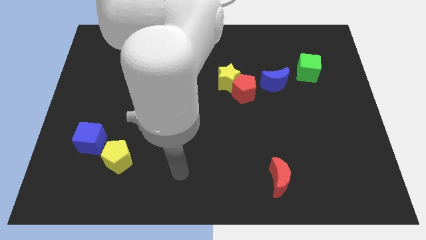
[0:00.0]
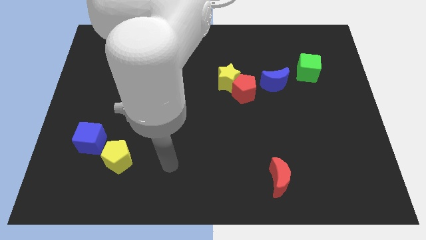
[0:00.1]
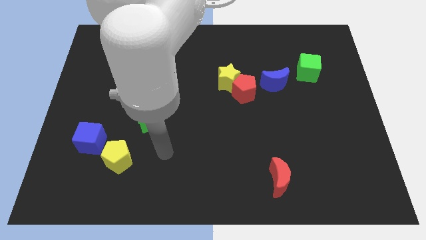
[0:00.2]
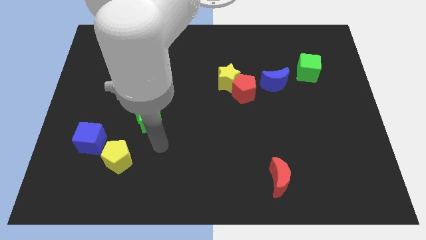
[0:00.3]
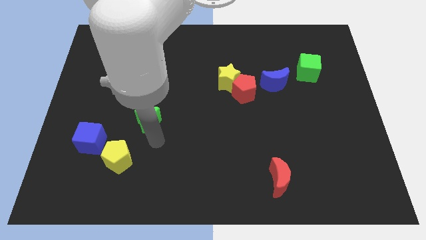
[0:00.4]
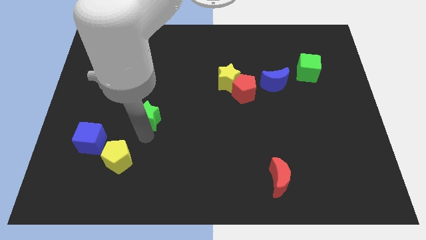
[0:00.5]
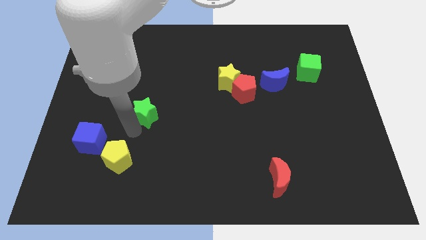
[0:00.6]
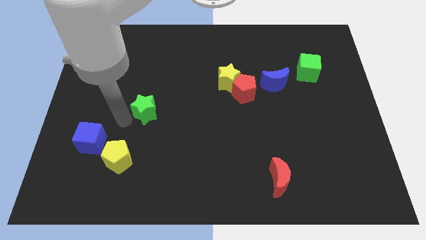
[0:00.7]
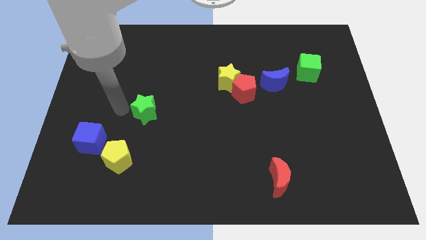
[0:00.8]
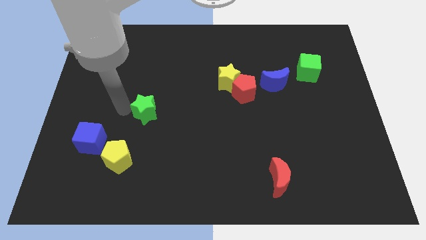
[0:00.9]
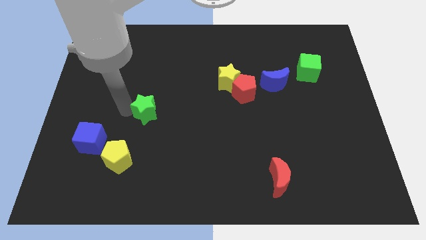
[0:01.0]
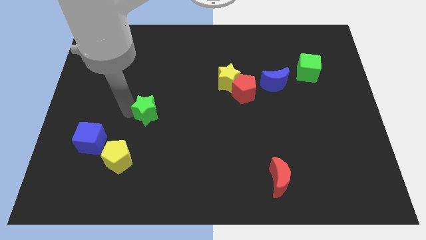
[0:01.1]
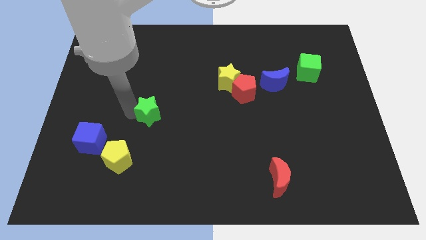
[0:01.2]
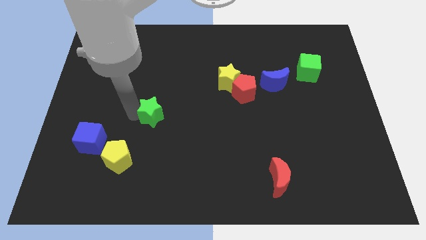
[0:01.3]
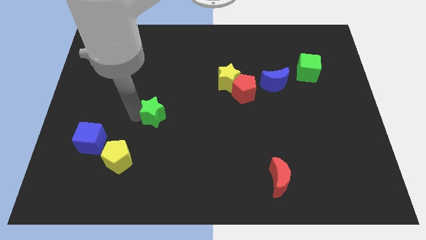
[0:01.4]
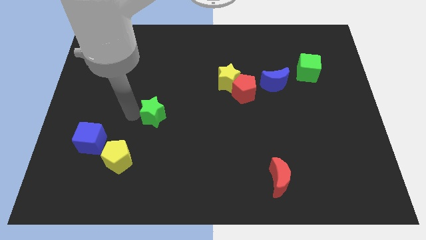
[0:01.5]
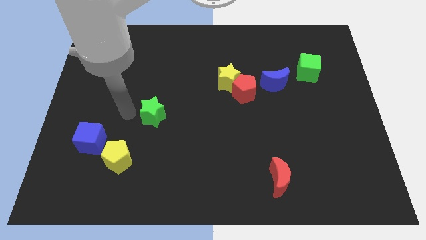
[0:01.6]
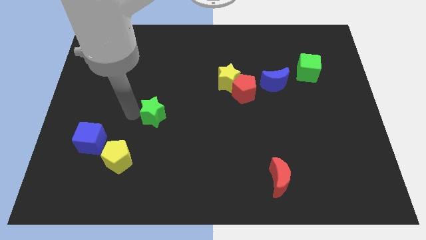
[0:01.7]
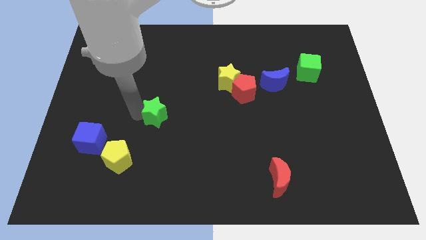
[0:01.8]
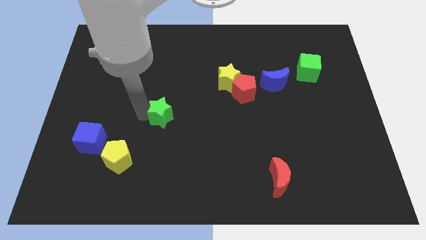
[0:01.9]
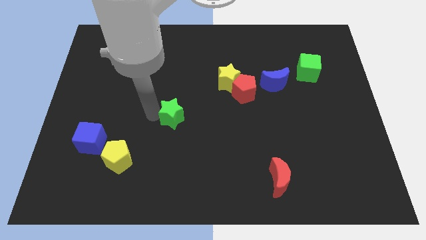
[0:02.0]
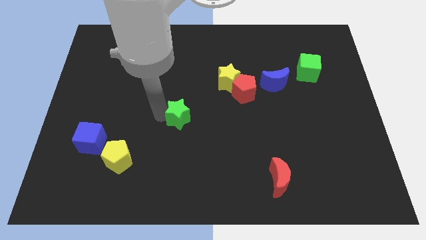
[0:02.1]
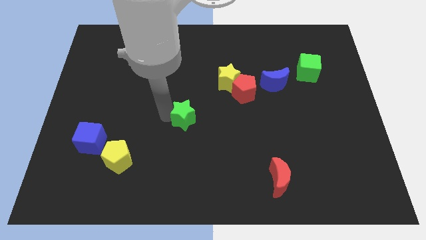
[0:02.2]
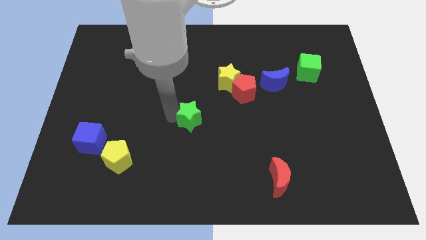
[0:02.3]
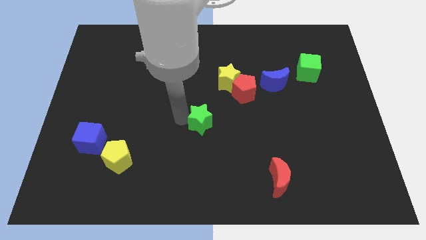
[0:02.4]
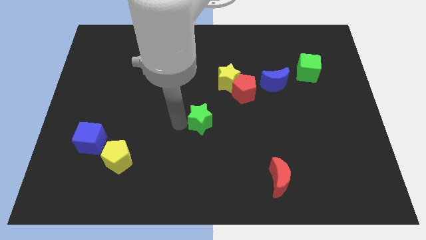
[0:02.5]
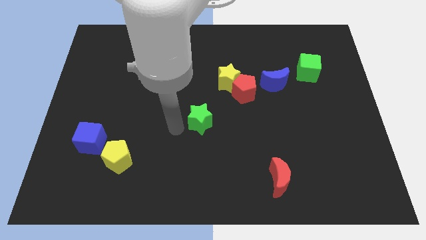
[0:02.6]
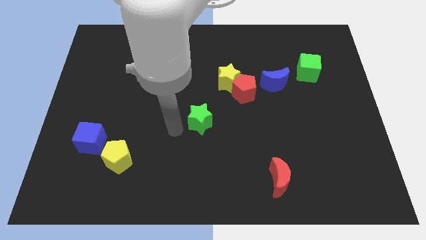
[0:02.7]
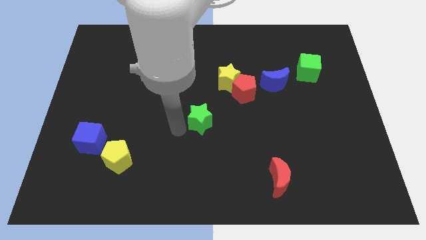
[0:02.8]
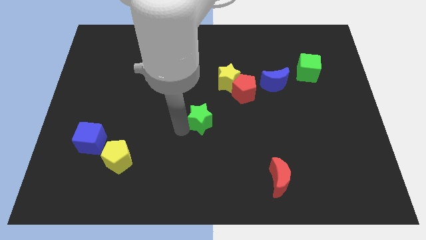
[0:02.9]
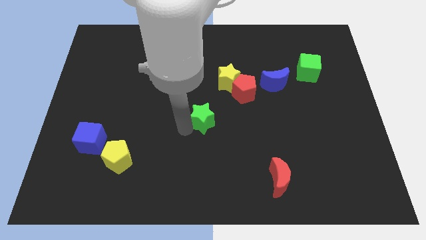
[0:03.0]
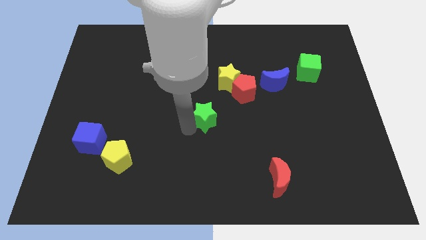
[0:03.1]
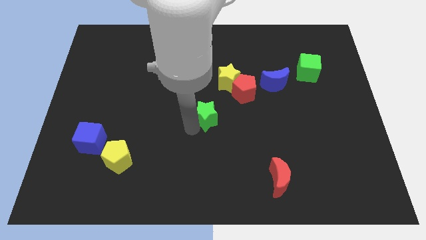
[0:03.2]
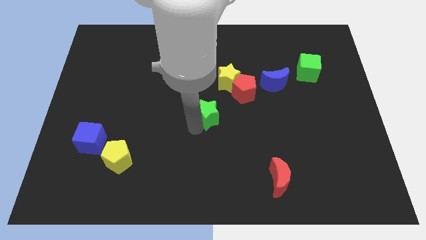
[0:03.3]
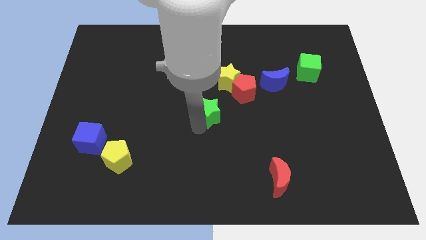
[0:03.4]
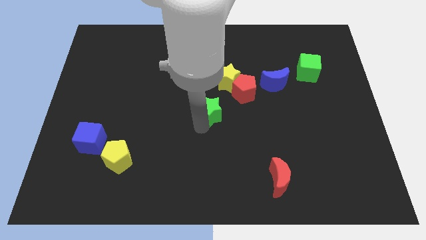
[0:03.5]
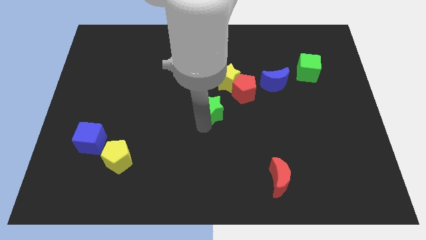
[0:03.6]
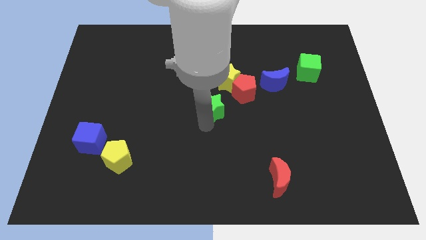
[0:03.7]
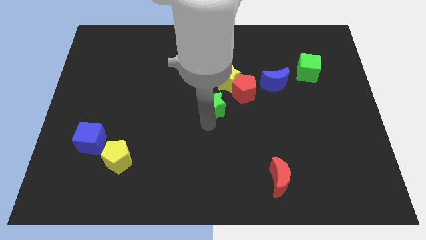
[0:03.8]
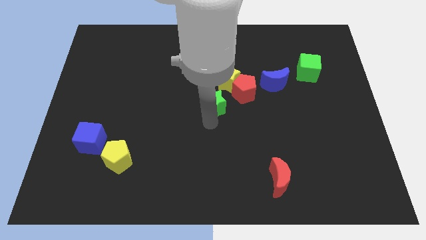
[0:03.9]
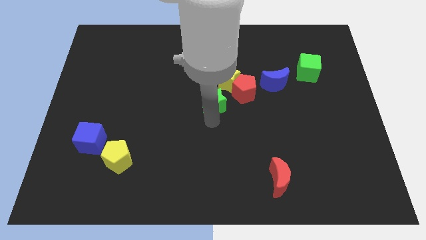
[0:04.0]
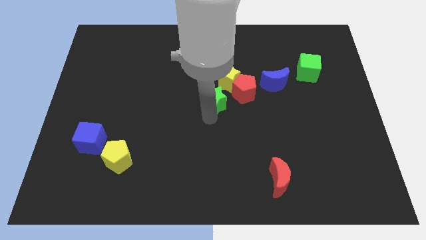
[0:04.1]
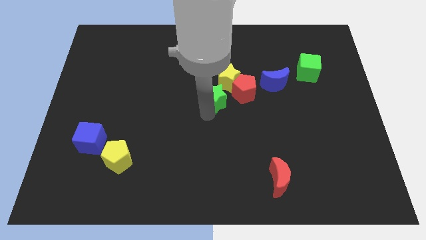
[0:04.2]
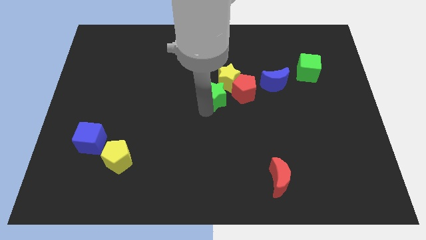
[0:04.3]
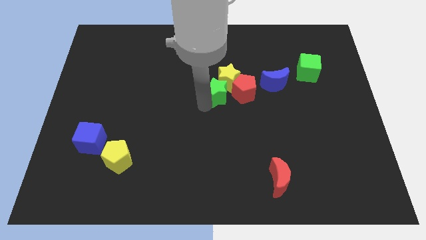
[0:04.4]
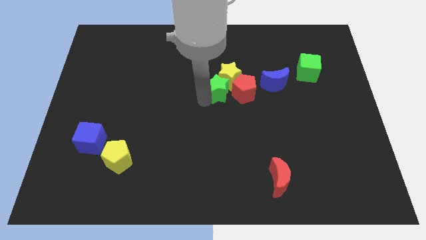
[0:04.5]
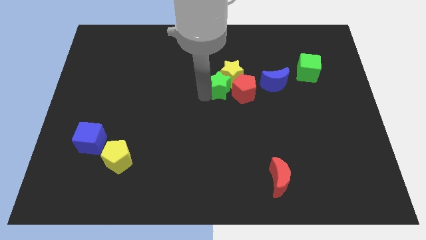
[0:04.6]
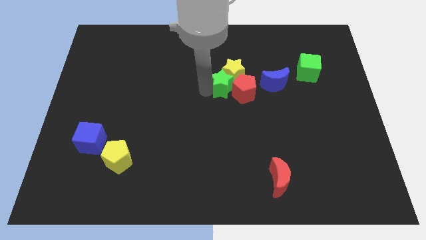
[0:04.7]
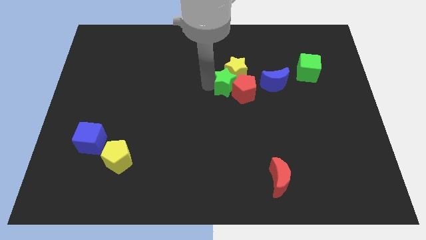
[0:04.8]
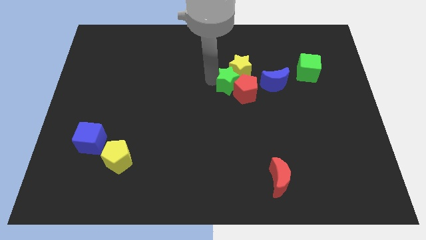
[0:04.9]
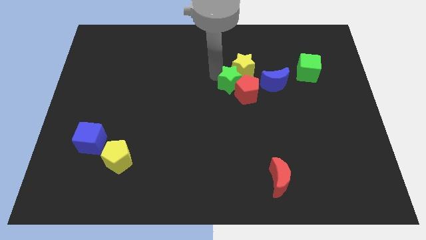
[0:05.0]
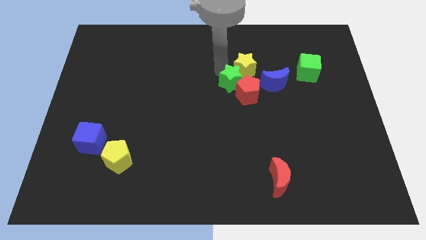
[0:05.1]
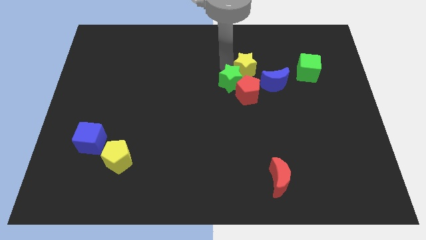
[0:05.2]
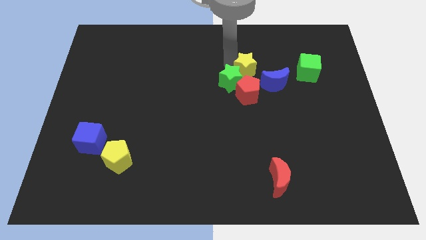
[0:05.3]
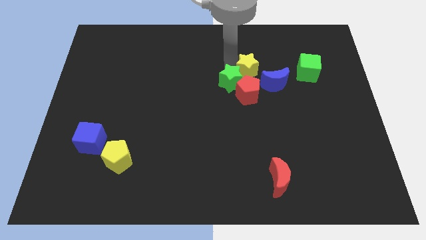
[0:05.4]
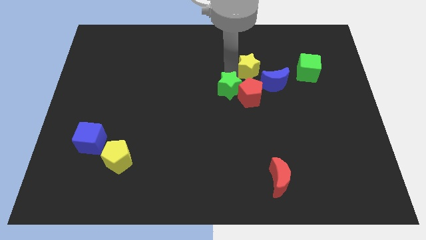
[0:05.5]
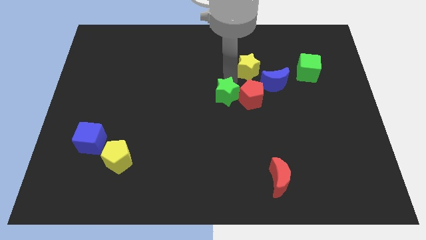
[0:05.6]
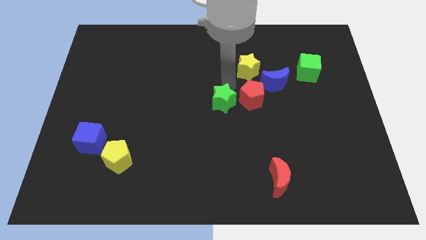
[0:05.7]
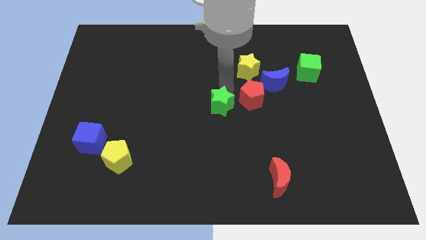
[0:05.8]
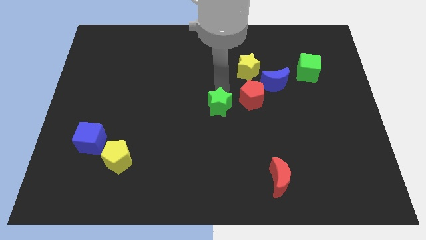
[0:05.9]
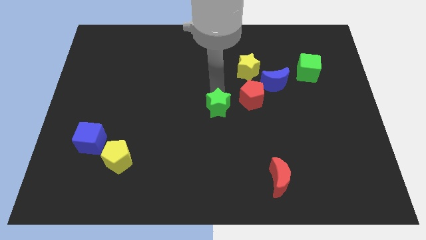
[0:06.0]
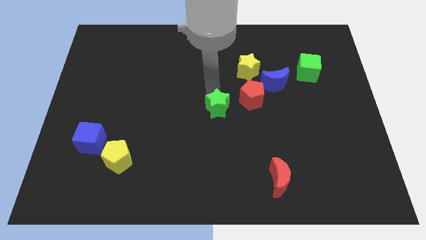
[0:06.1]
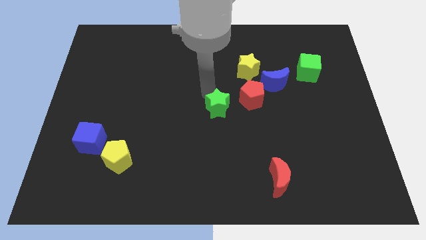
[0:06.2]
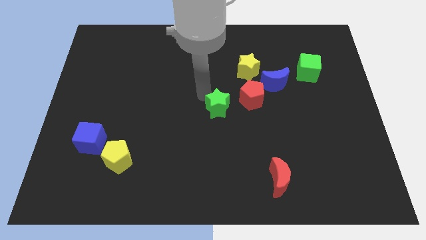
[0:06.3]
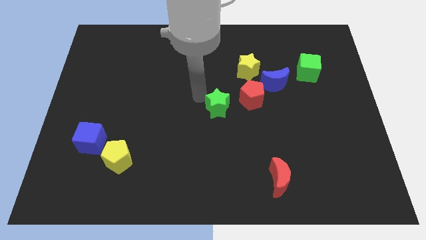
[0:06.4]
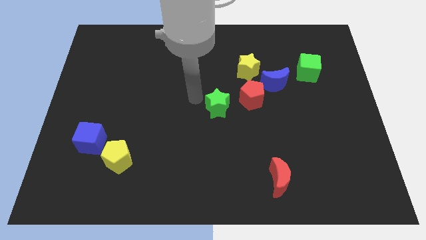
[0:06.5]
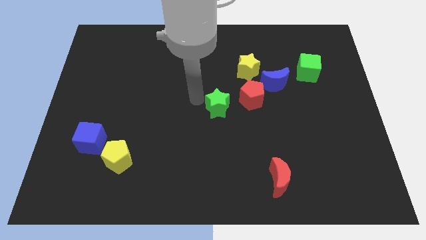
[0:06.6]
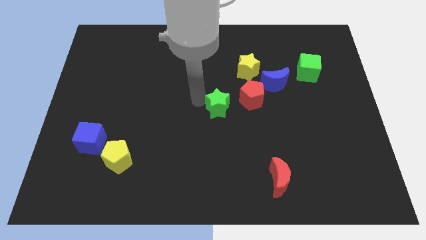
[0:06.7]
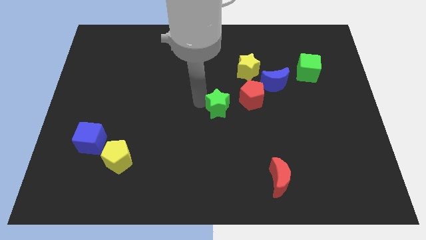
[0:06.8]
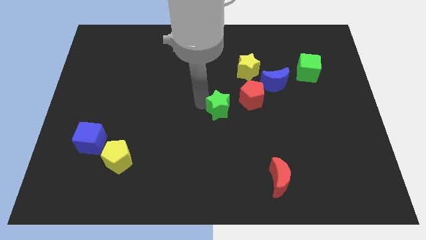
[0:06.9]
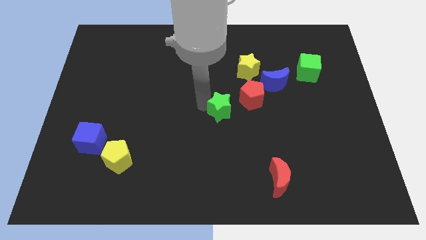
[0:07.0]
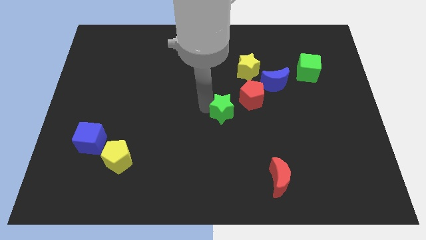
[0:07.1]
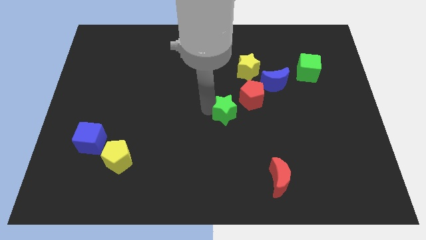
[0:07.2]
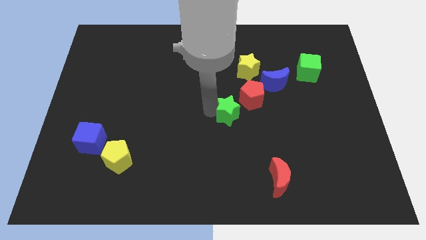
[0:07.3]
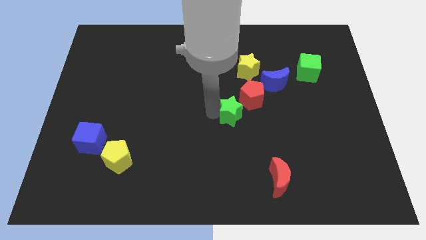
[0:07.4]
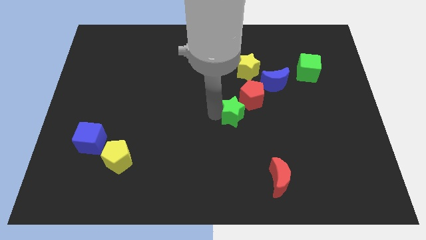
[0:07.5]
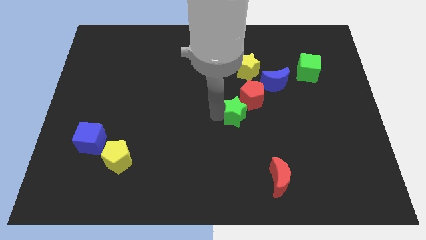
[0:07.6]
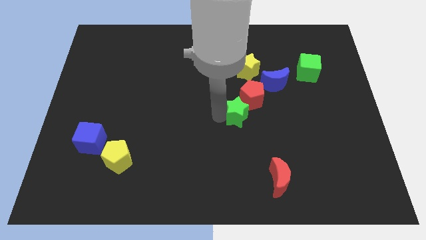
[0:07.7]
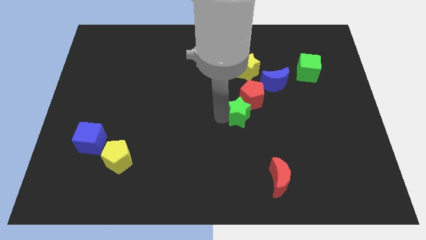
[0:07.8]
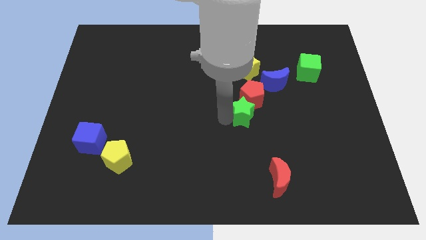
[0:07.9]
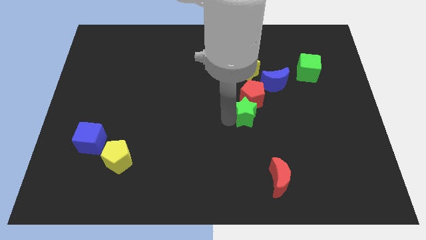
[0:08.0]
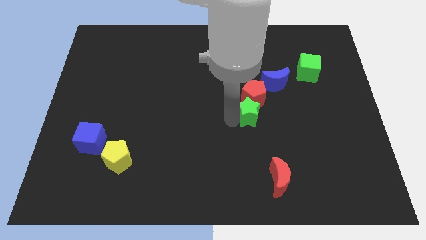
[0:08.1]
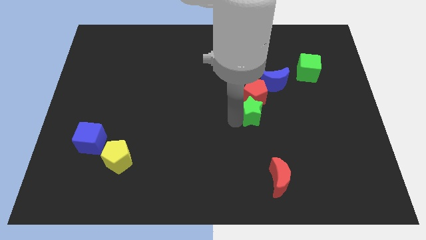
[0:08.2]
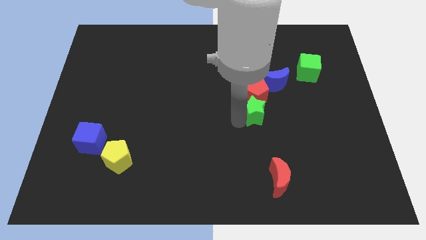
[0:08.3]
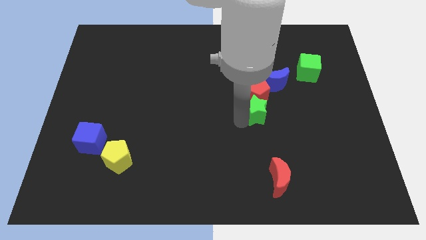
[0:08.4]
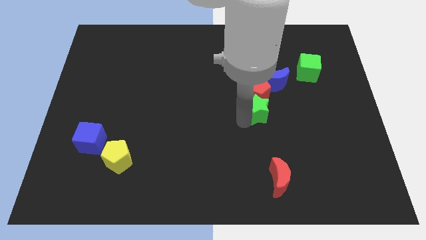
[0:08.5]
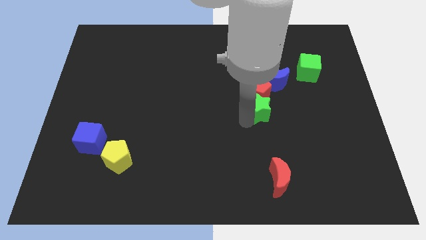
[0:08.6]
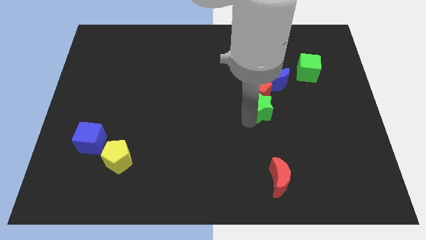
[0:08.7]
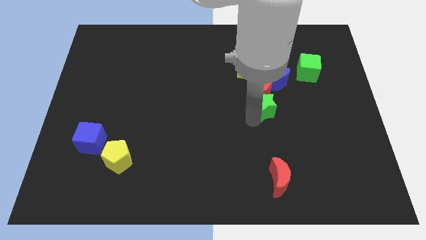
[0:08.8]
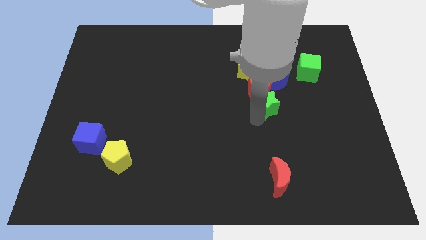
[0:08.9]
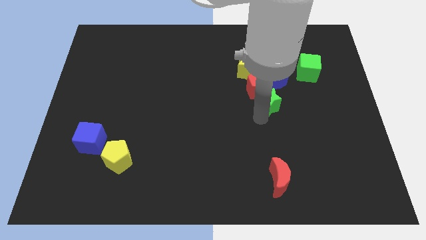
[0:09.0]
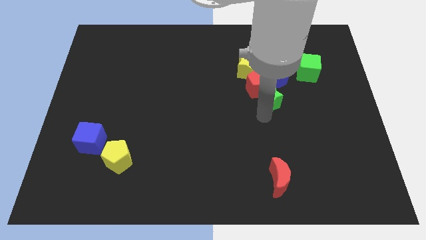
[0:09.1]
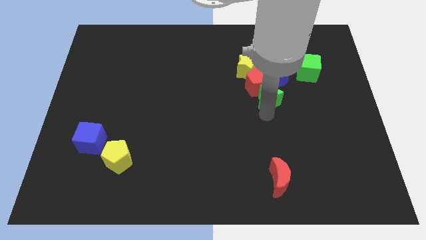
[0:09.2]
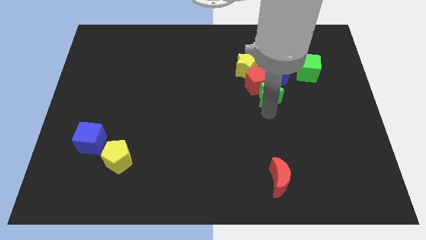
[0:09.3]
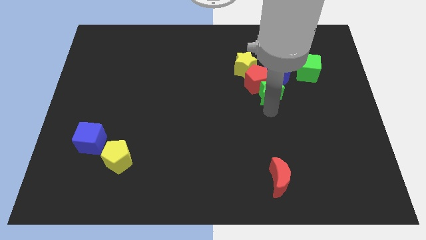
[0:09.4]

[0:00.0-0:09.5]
slide the green star next to the blue moon
